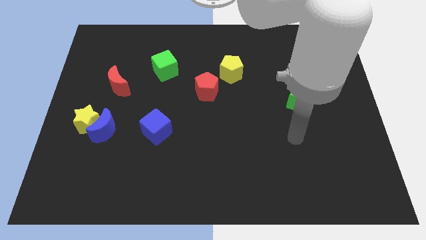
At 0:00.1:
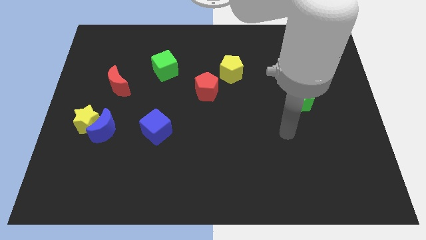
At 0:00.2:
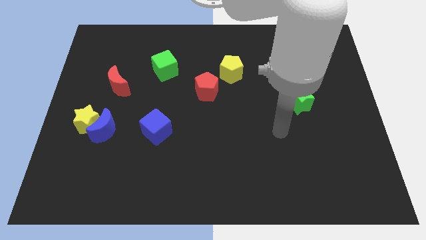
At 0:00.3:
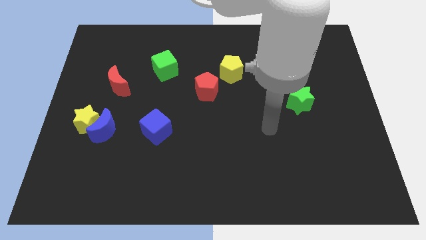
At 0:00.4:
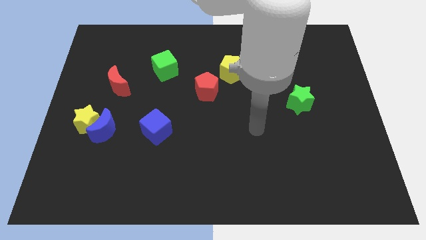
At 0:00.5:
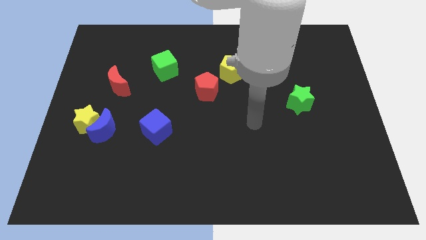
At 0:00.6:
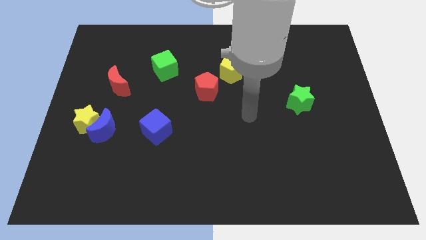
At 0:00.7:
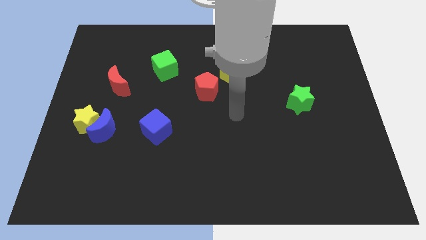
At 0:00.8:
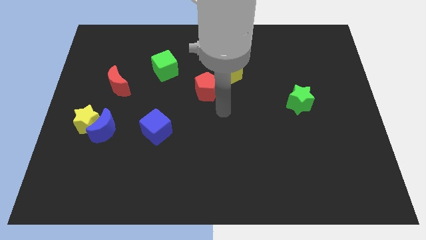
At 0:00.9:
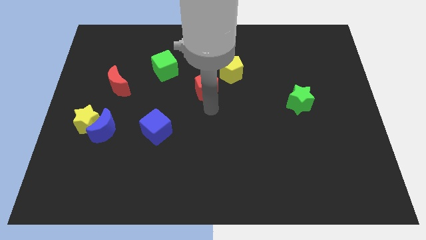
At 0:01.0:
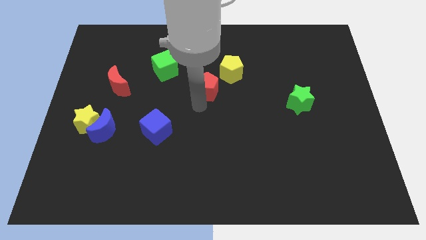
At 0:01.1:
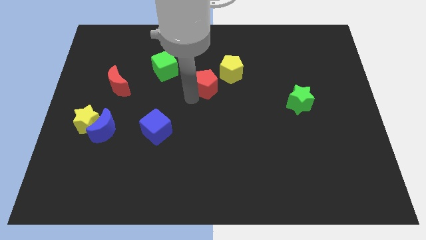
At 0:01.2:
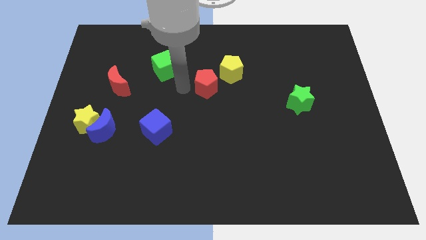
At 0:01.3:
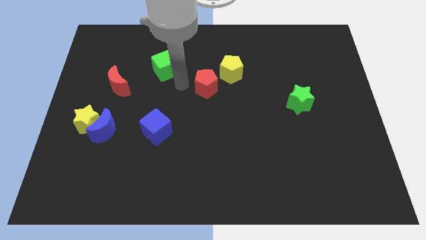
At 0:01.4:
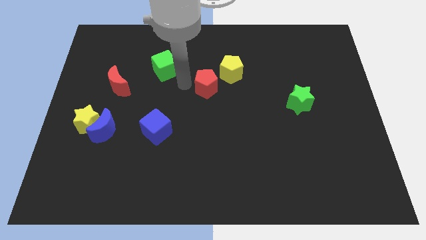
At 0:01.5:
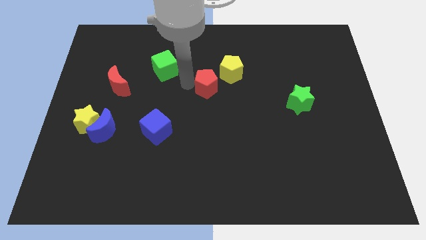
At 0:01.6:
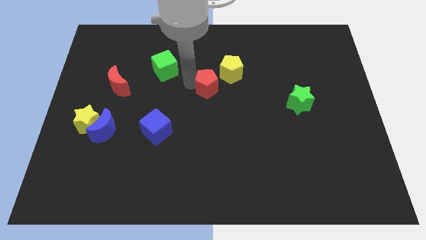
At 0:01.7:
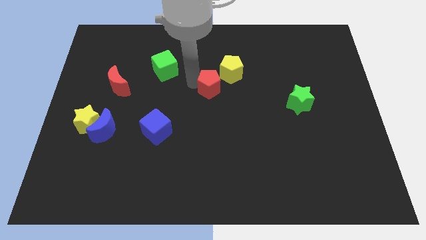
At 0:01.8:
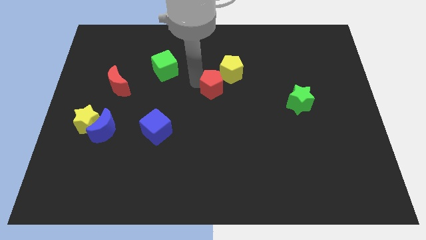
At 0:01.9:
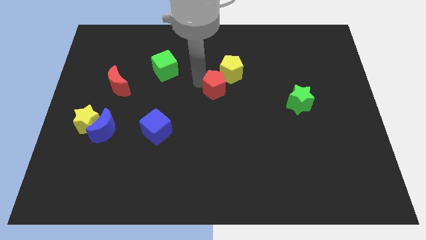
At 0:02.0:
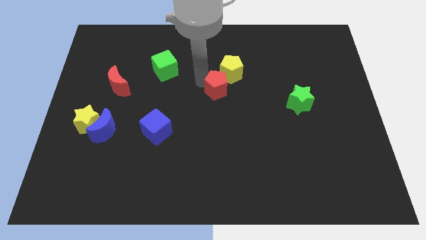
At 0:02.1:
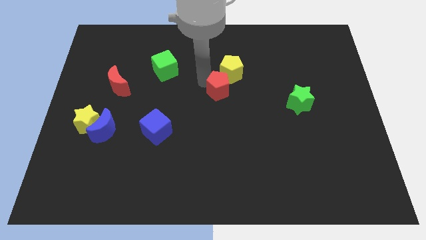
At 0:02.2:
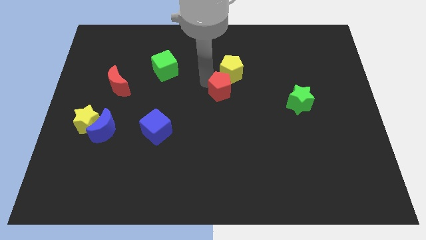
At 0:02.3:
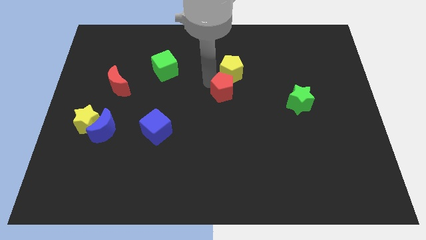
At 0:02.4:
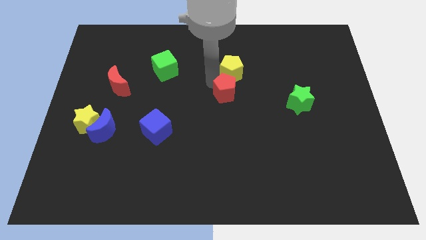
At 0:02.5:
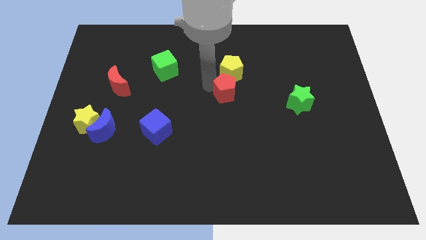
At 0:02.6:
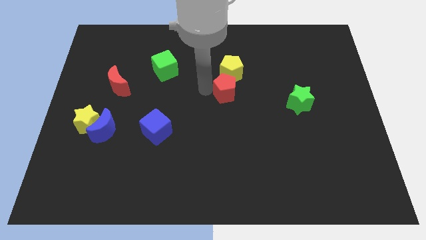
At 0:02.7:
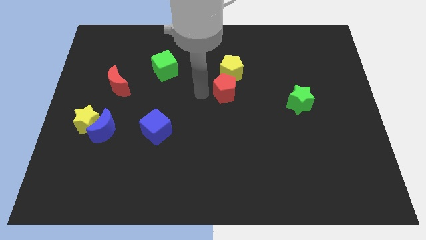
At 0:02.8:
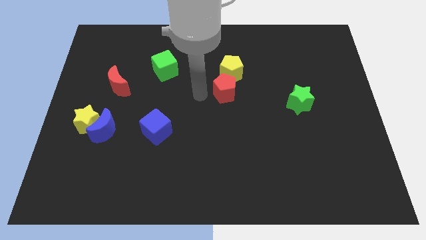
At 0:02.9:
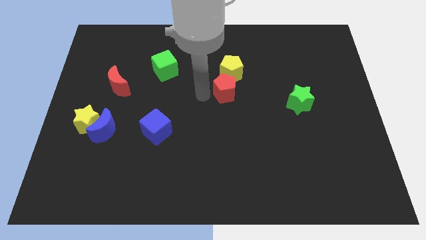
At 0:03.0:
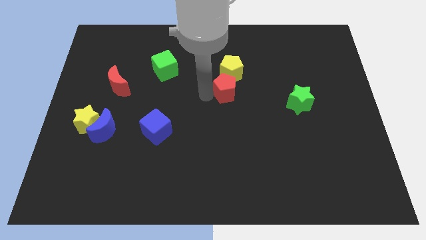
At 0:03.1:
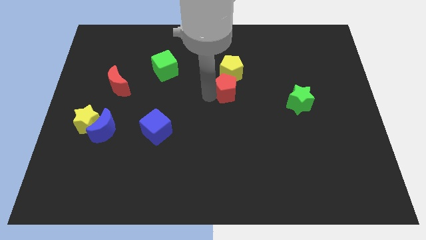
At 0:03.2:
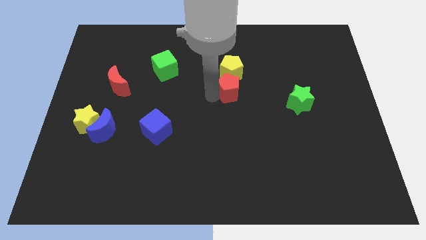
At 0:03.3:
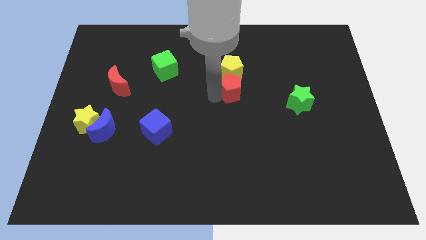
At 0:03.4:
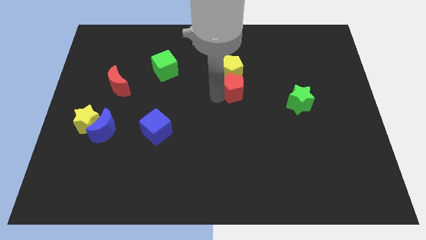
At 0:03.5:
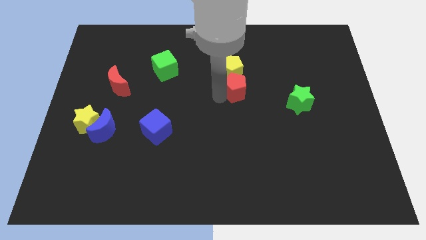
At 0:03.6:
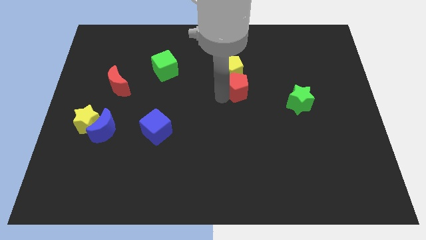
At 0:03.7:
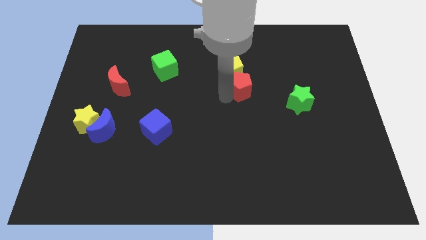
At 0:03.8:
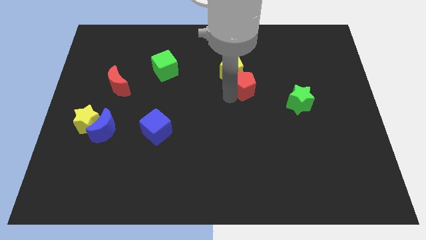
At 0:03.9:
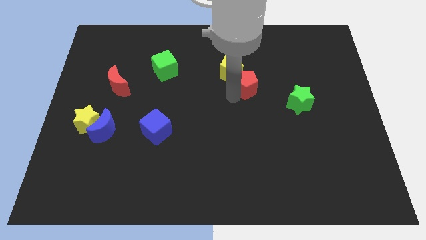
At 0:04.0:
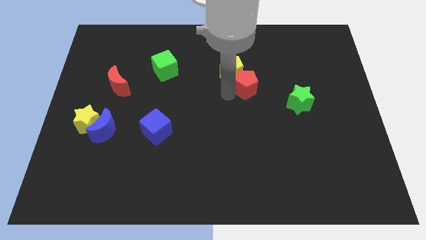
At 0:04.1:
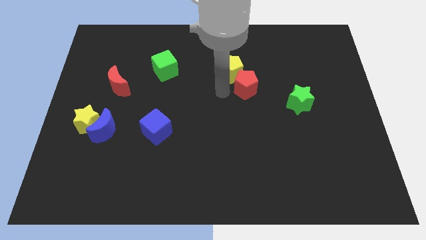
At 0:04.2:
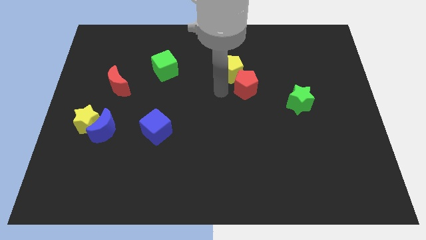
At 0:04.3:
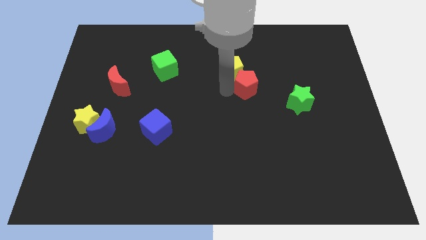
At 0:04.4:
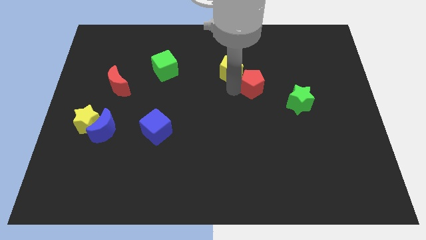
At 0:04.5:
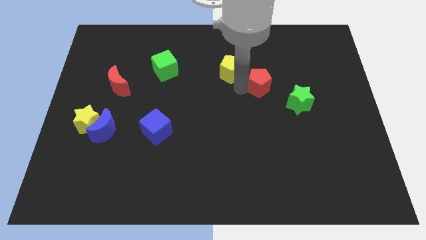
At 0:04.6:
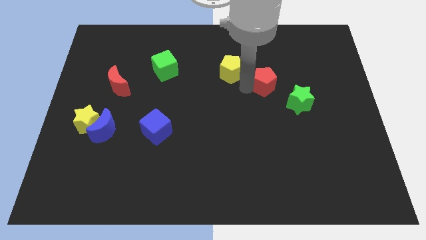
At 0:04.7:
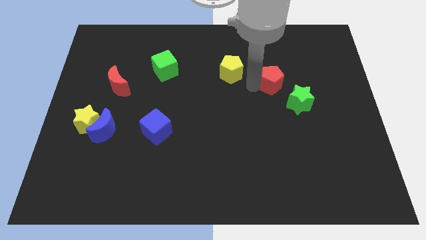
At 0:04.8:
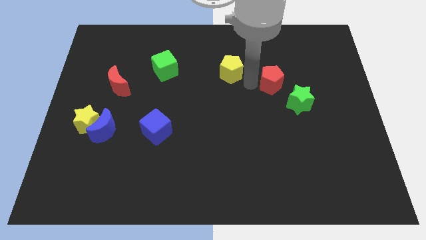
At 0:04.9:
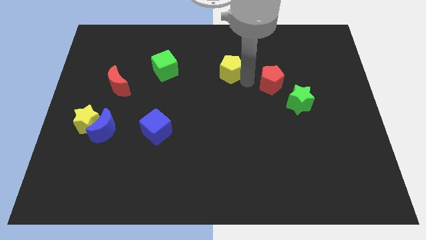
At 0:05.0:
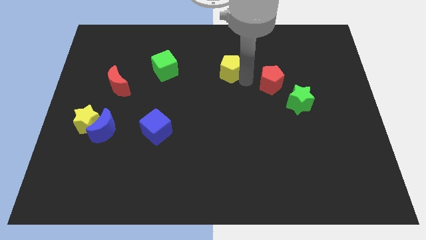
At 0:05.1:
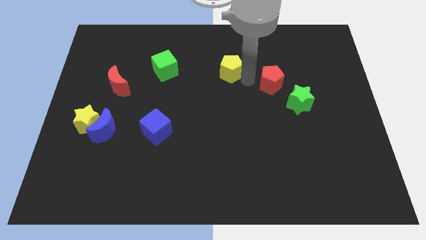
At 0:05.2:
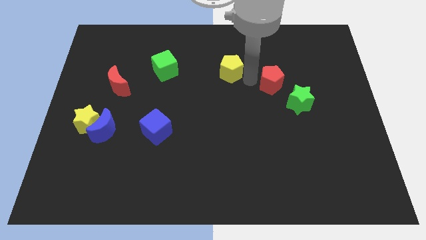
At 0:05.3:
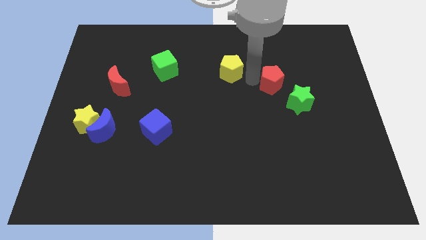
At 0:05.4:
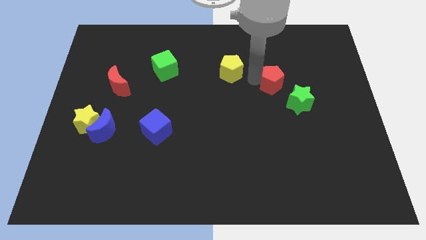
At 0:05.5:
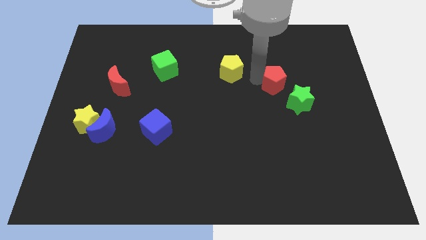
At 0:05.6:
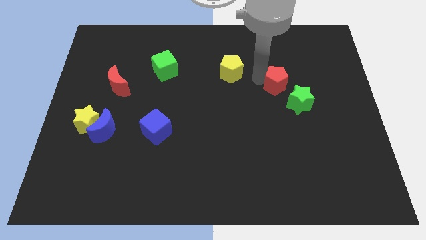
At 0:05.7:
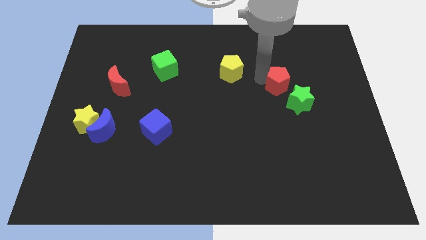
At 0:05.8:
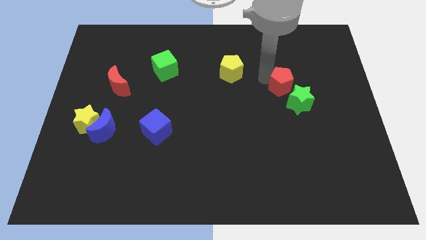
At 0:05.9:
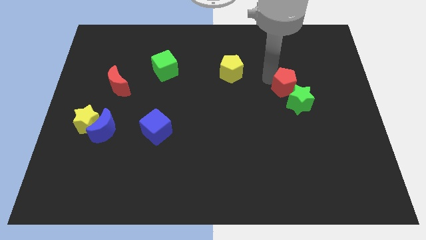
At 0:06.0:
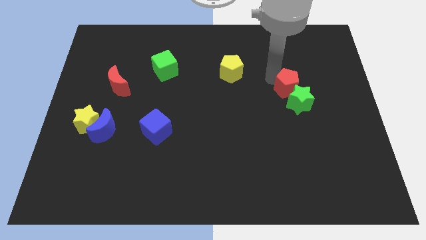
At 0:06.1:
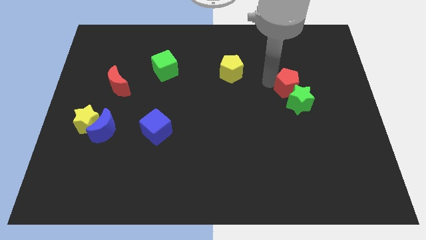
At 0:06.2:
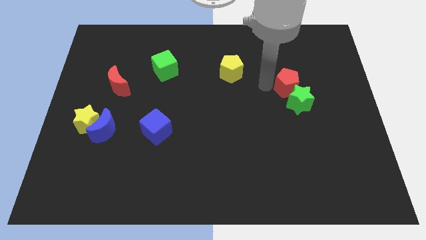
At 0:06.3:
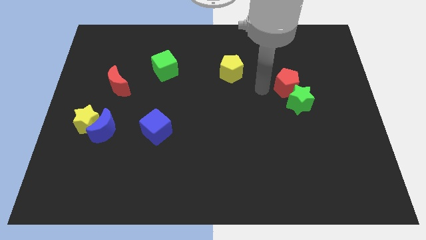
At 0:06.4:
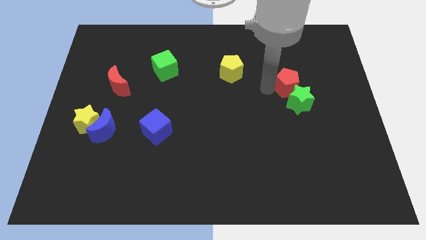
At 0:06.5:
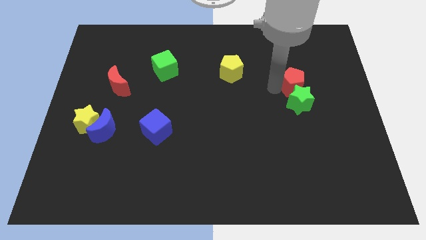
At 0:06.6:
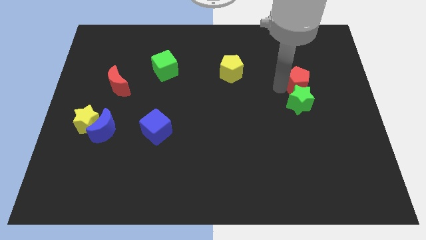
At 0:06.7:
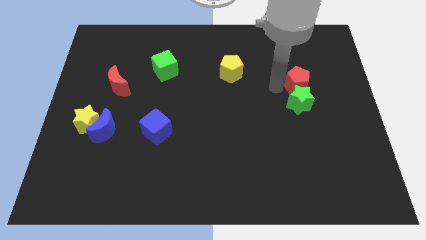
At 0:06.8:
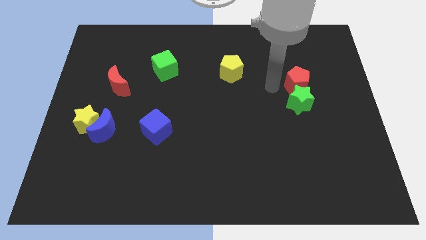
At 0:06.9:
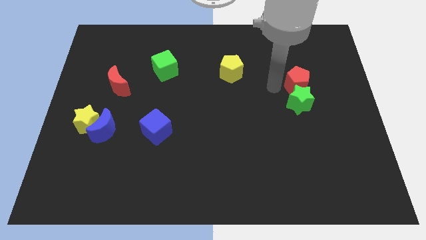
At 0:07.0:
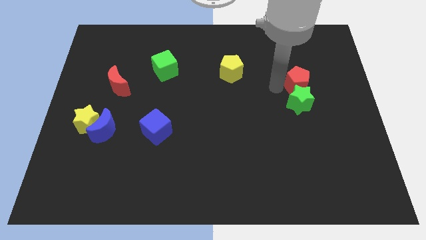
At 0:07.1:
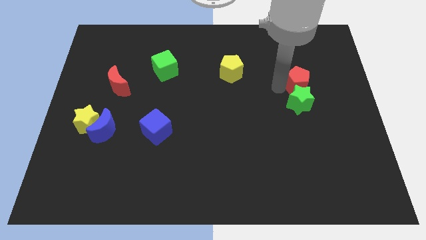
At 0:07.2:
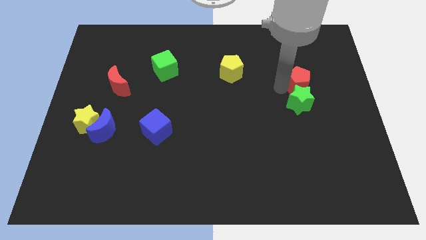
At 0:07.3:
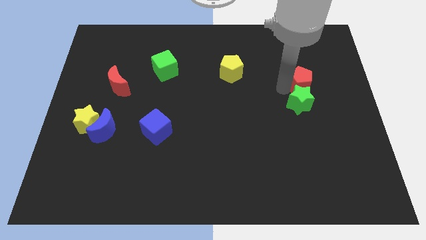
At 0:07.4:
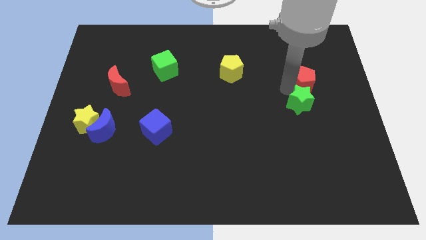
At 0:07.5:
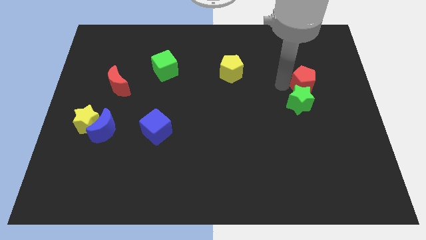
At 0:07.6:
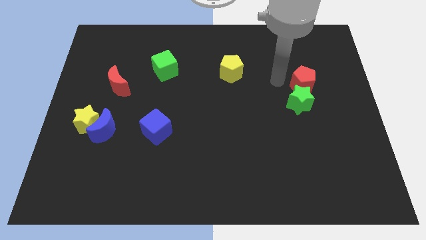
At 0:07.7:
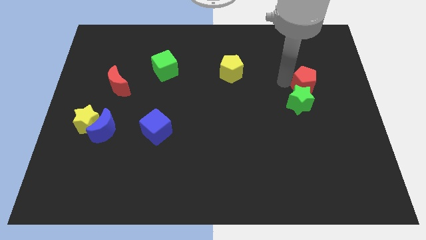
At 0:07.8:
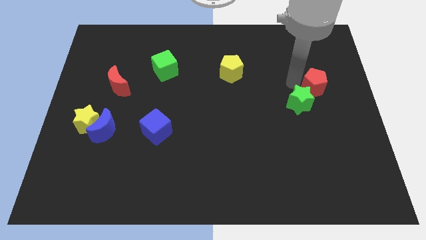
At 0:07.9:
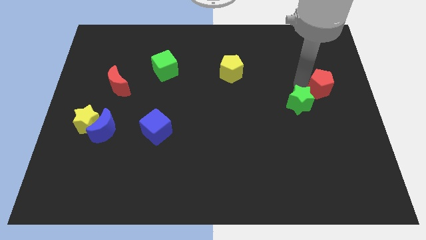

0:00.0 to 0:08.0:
put the red pentagon to the right side
